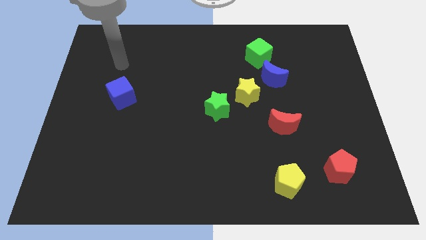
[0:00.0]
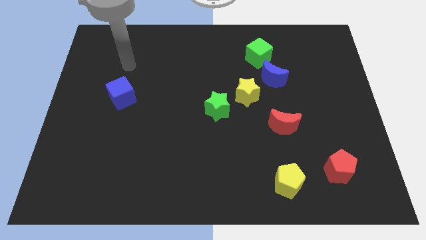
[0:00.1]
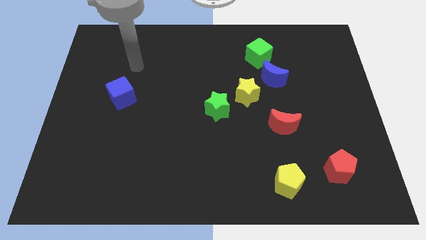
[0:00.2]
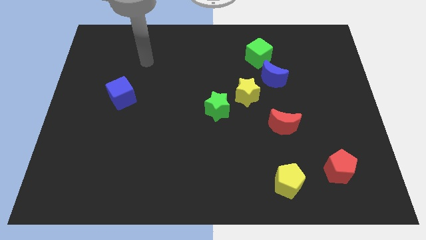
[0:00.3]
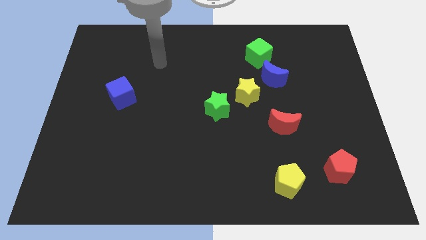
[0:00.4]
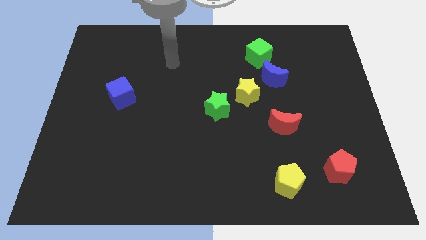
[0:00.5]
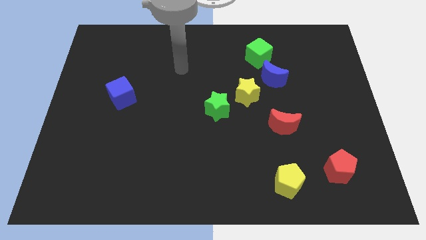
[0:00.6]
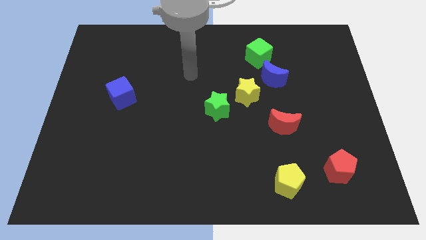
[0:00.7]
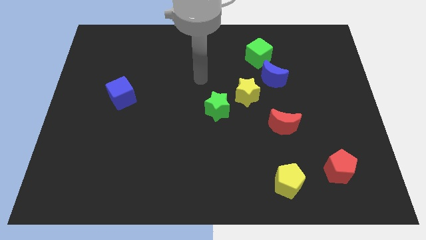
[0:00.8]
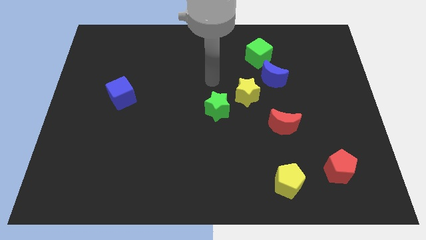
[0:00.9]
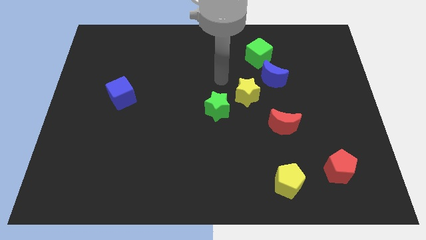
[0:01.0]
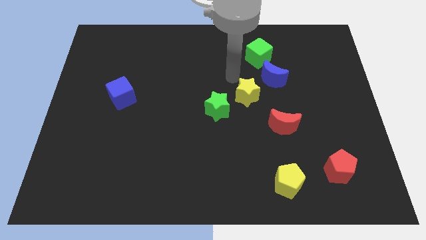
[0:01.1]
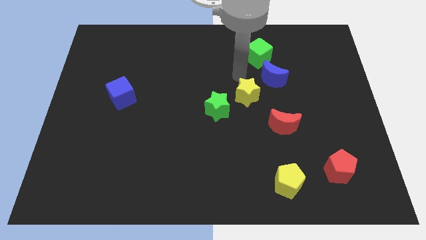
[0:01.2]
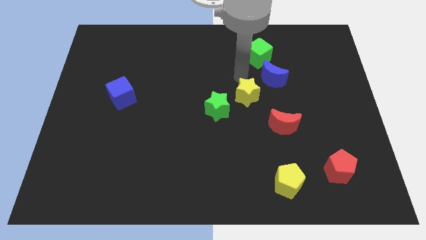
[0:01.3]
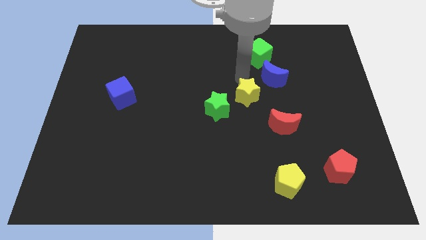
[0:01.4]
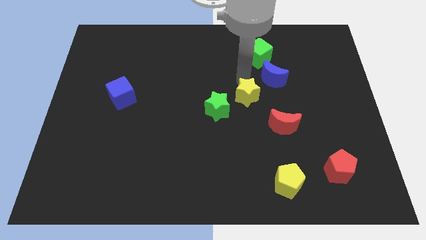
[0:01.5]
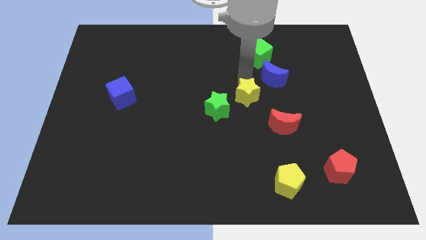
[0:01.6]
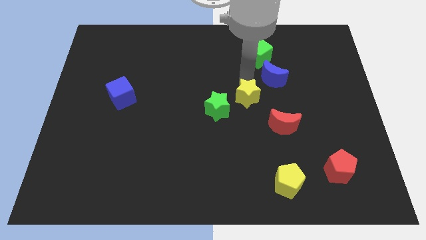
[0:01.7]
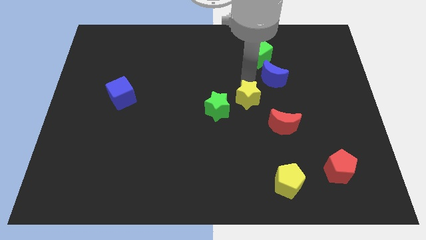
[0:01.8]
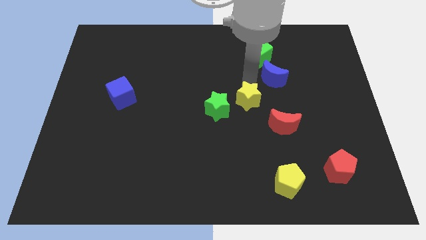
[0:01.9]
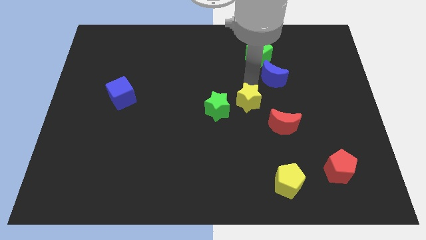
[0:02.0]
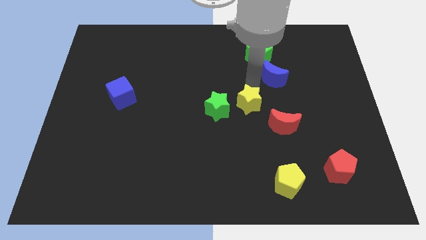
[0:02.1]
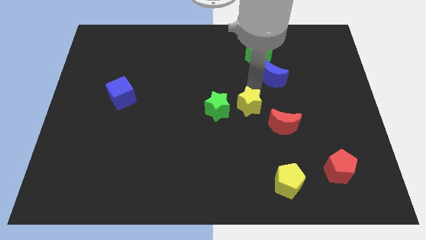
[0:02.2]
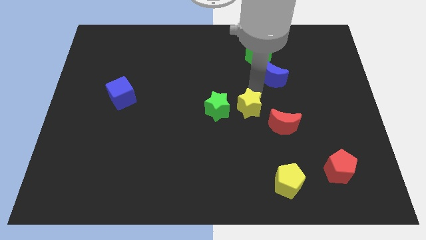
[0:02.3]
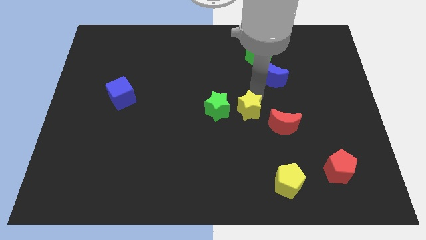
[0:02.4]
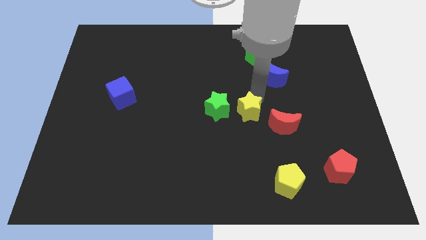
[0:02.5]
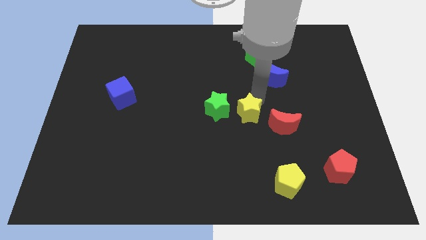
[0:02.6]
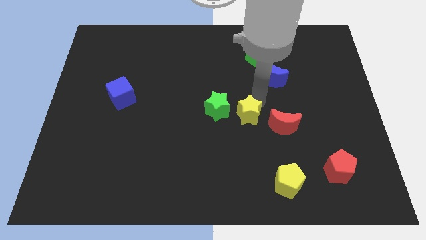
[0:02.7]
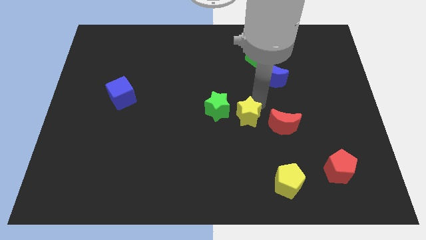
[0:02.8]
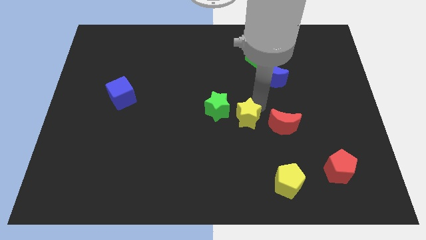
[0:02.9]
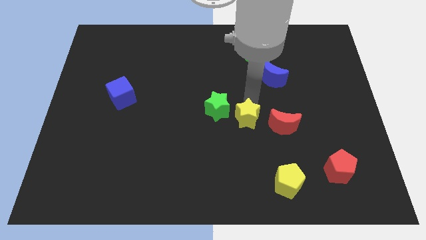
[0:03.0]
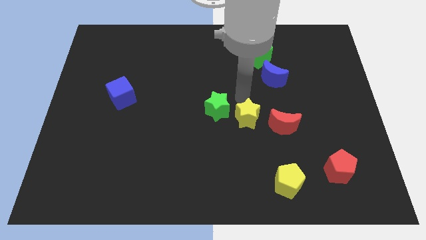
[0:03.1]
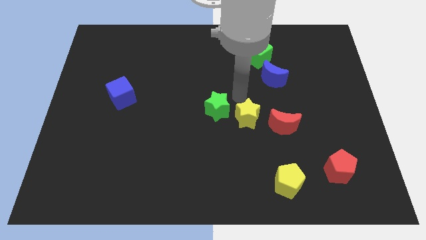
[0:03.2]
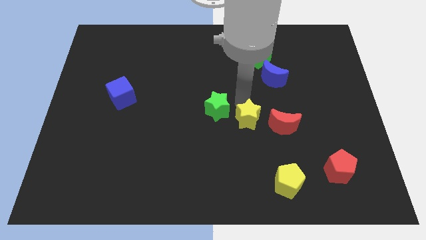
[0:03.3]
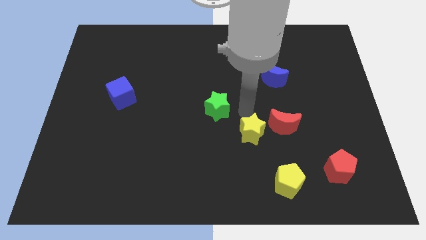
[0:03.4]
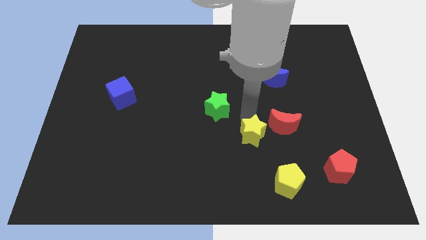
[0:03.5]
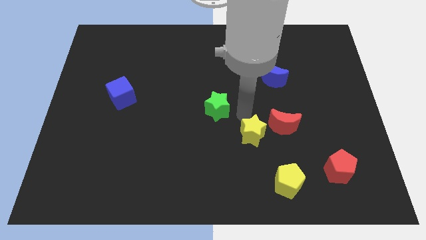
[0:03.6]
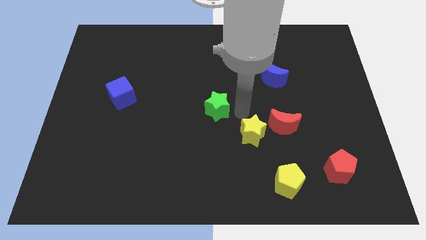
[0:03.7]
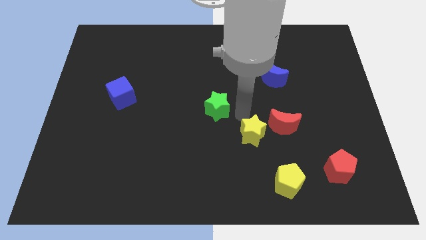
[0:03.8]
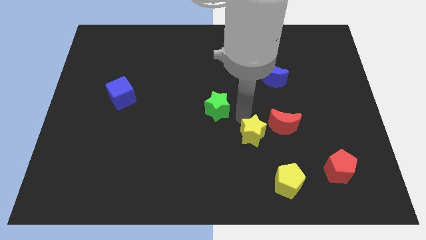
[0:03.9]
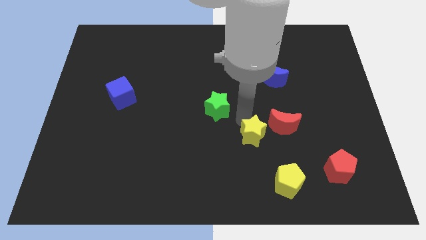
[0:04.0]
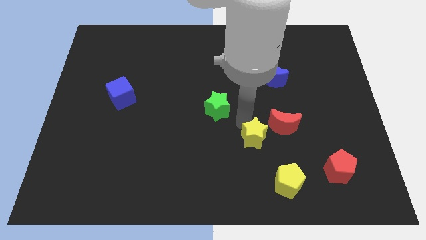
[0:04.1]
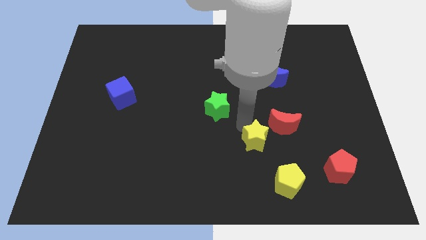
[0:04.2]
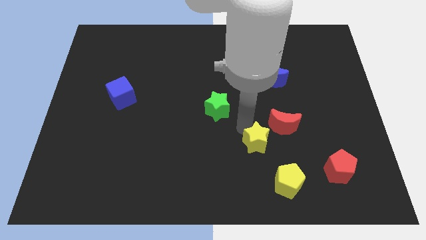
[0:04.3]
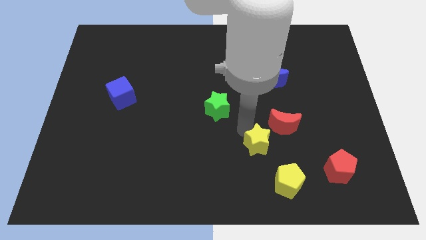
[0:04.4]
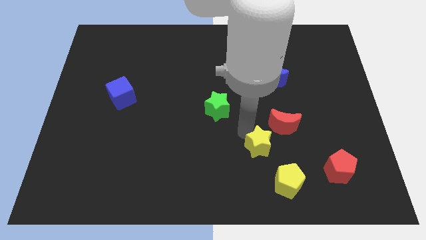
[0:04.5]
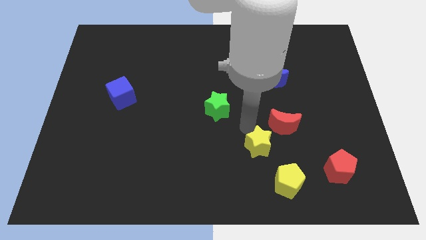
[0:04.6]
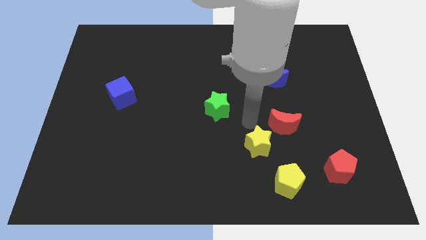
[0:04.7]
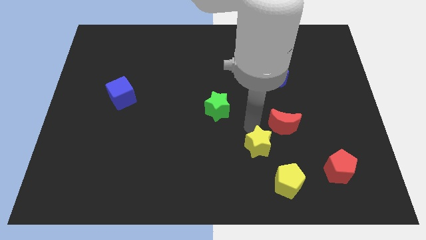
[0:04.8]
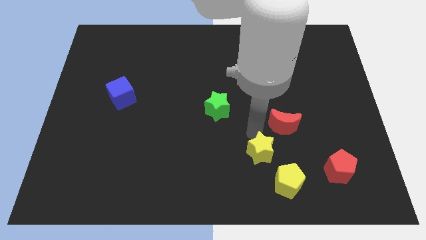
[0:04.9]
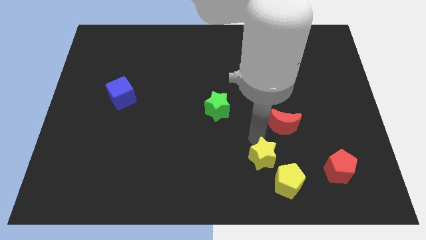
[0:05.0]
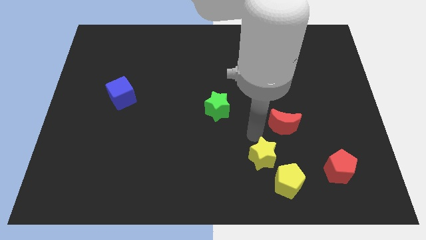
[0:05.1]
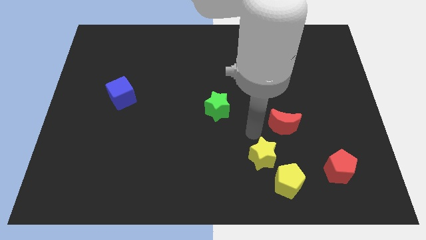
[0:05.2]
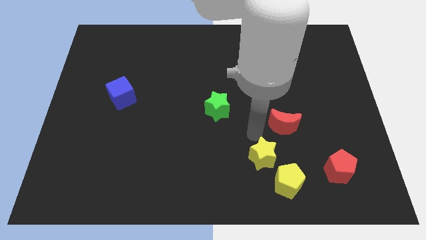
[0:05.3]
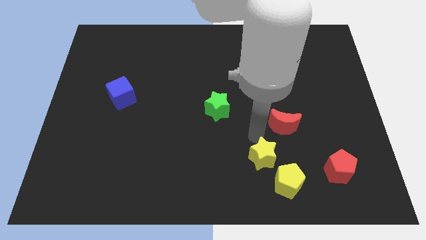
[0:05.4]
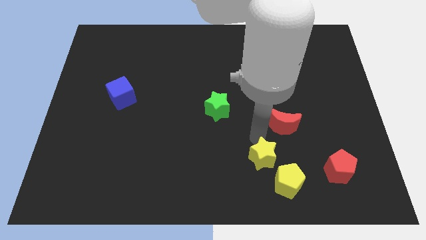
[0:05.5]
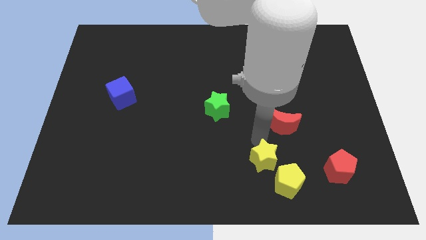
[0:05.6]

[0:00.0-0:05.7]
slide the yellow star to the left of the red pentagon

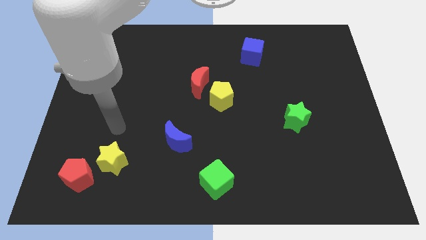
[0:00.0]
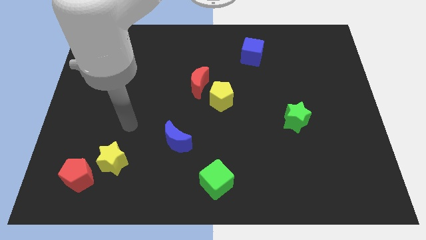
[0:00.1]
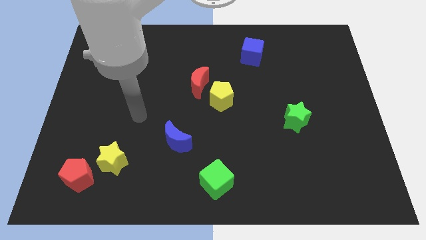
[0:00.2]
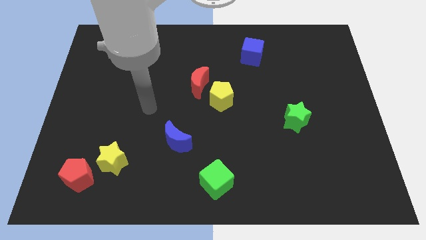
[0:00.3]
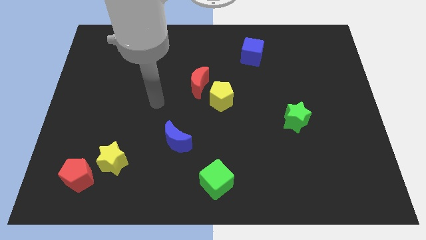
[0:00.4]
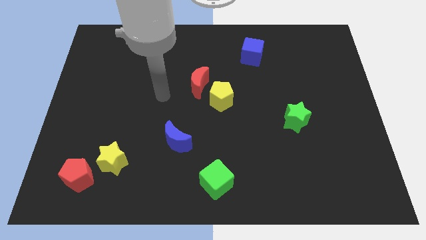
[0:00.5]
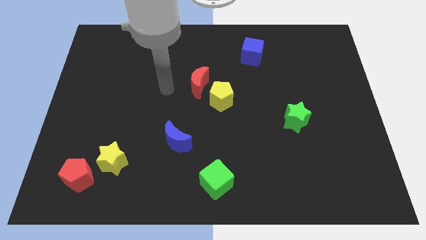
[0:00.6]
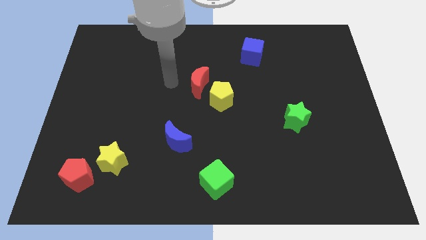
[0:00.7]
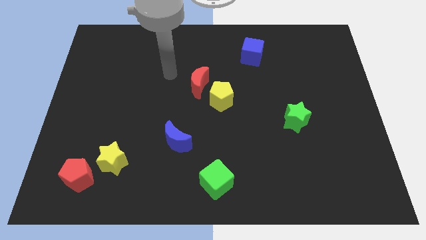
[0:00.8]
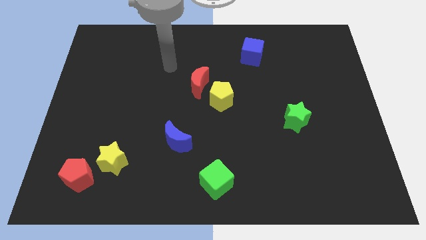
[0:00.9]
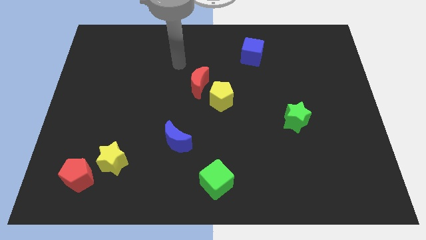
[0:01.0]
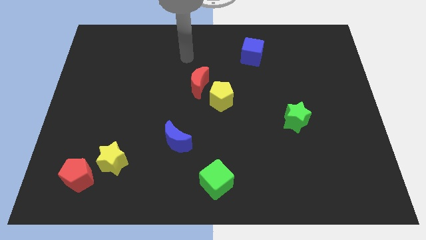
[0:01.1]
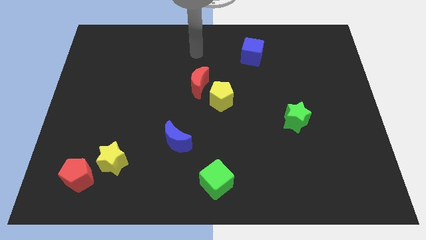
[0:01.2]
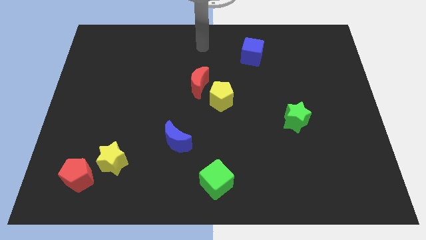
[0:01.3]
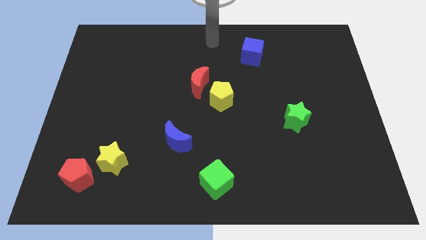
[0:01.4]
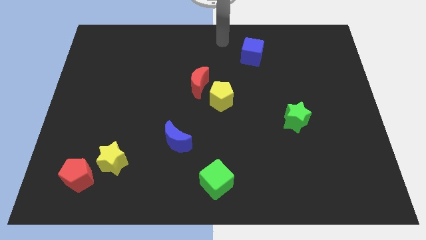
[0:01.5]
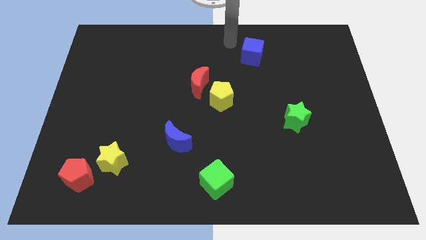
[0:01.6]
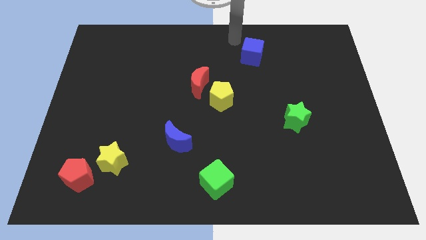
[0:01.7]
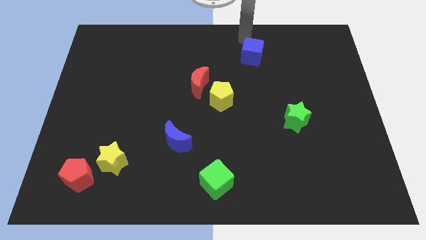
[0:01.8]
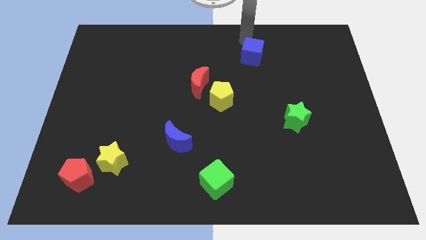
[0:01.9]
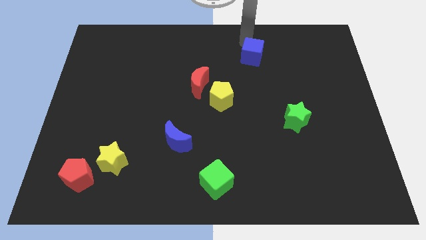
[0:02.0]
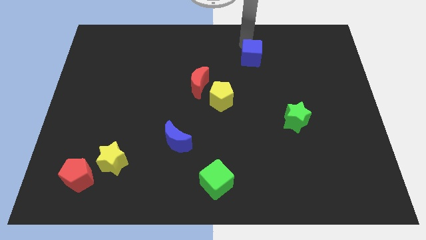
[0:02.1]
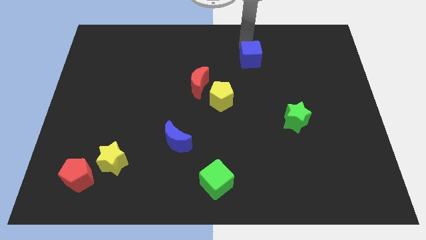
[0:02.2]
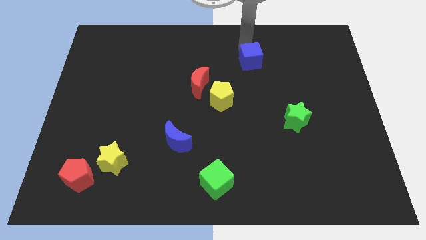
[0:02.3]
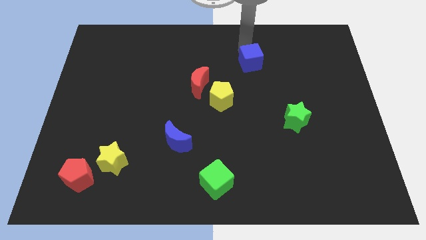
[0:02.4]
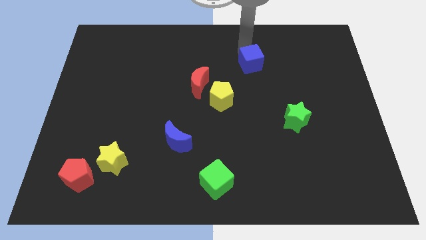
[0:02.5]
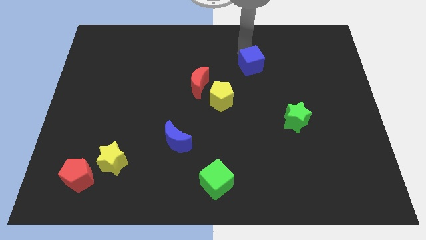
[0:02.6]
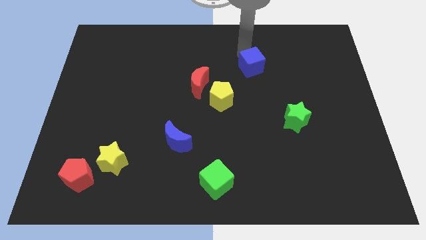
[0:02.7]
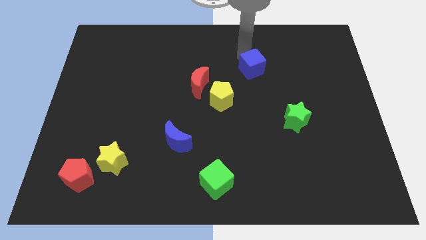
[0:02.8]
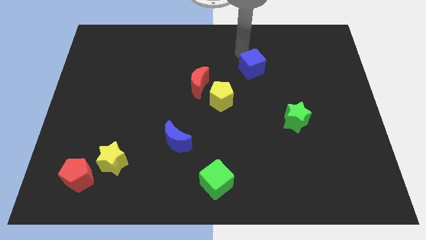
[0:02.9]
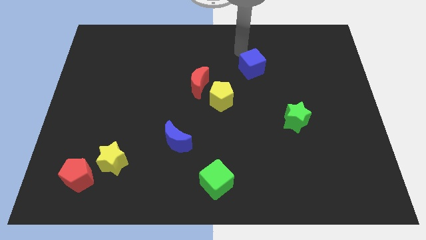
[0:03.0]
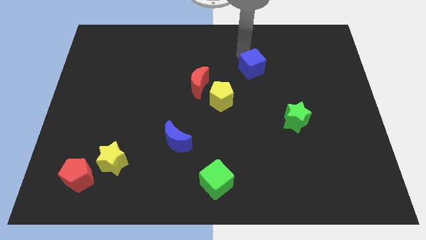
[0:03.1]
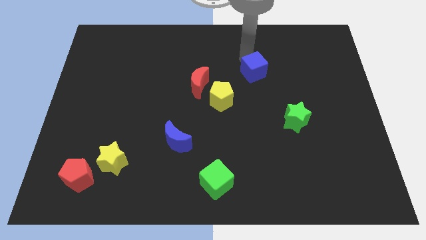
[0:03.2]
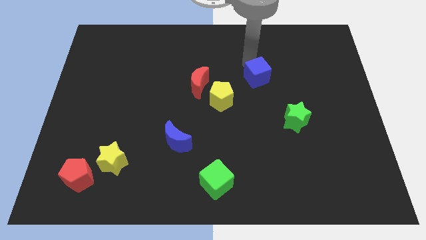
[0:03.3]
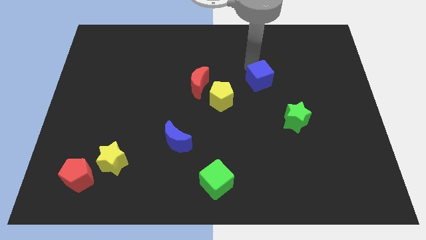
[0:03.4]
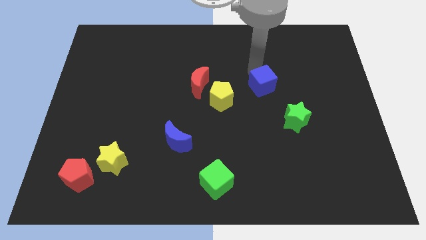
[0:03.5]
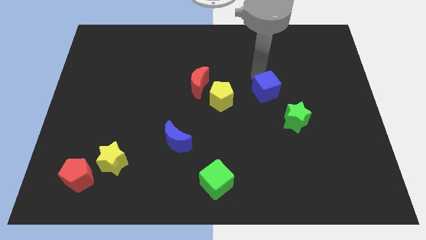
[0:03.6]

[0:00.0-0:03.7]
move the blue cube to the top left of the green star
